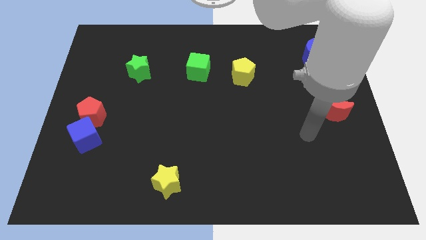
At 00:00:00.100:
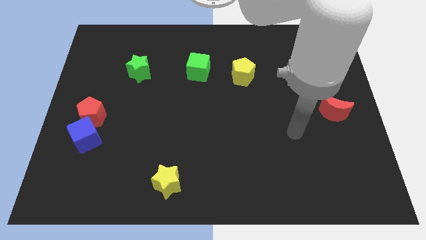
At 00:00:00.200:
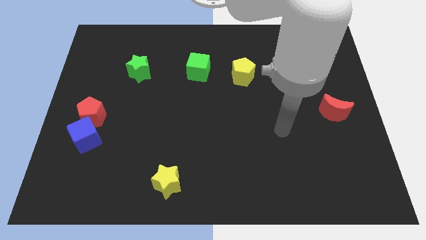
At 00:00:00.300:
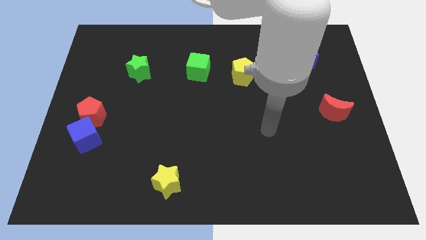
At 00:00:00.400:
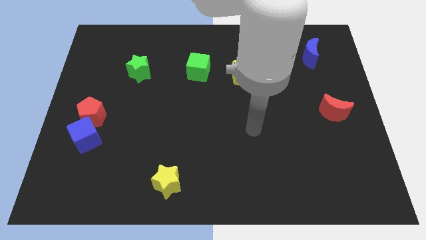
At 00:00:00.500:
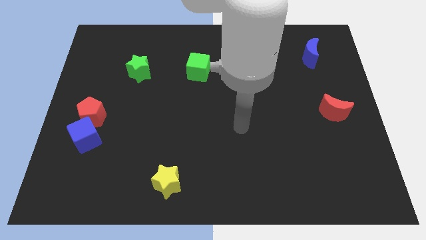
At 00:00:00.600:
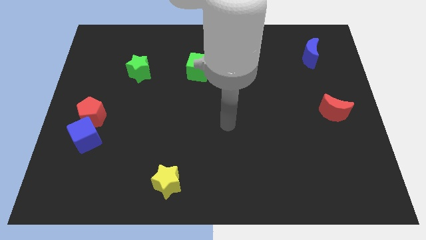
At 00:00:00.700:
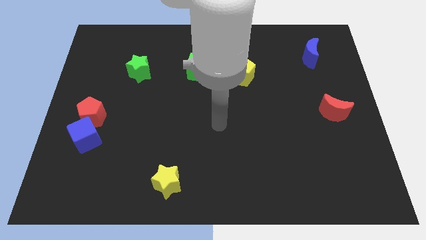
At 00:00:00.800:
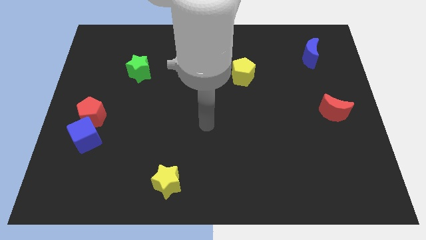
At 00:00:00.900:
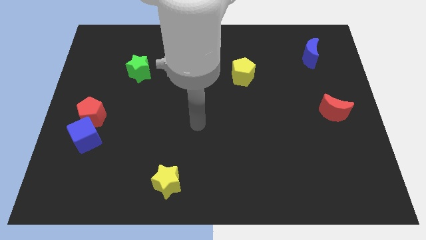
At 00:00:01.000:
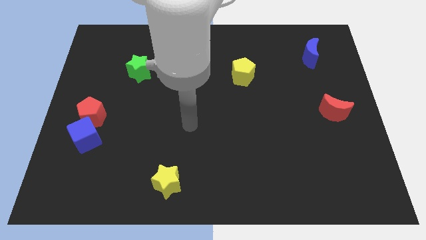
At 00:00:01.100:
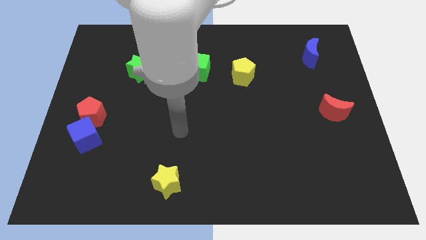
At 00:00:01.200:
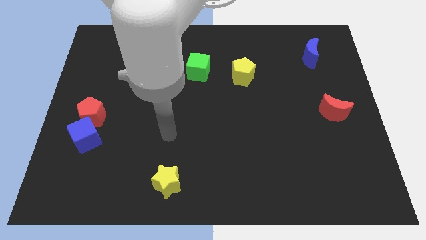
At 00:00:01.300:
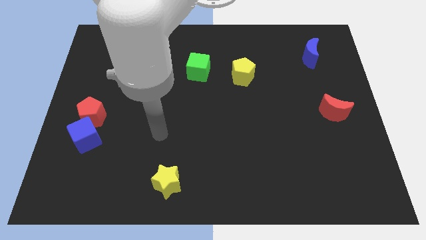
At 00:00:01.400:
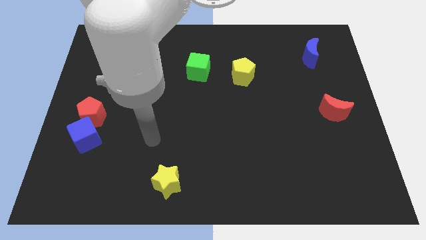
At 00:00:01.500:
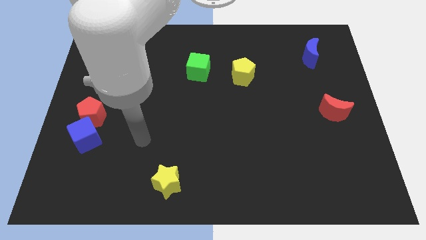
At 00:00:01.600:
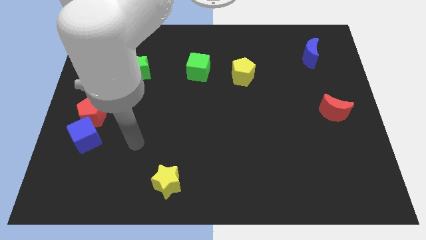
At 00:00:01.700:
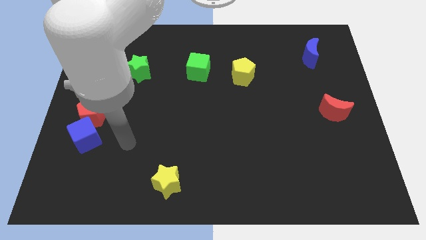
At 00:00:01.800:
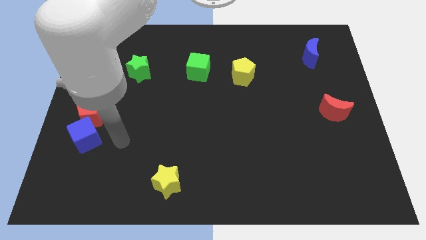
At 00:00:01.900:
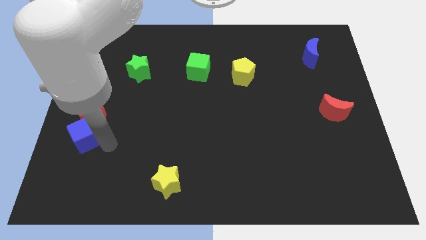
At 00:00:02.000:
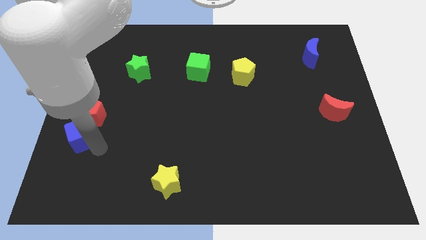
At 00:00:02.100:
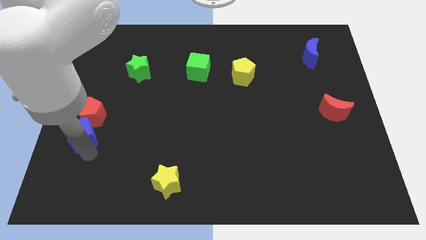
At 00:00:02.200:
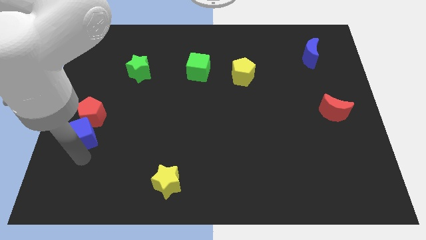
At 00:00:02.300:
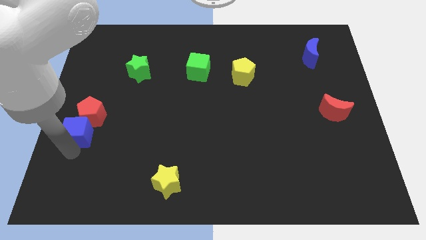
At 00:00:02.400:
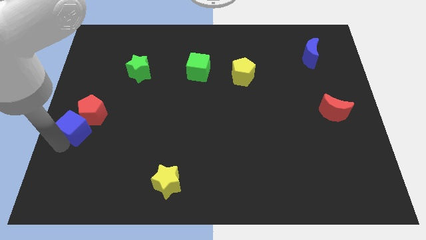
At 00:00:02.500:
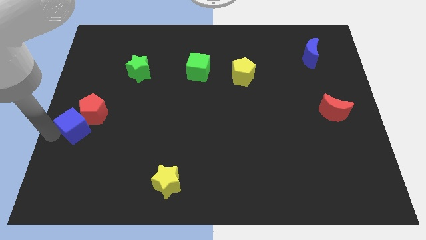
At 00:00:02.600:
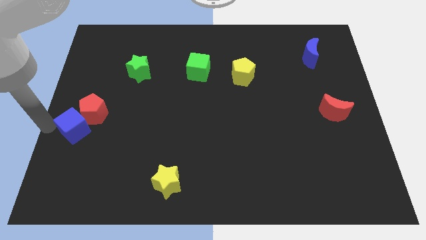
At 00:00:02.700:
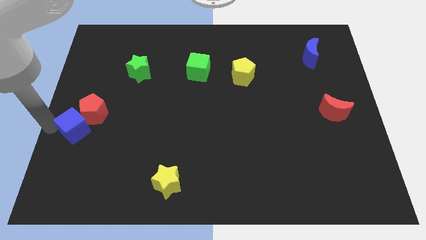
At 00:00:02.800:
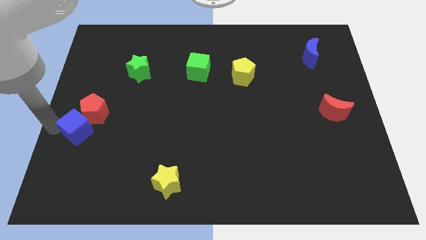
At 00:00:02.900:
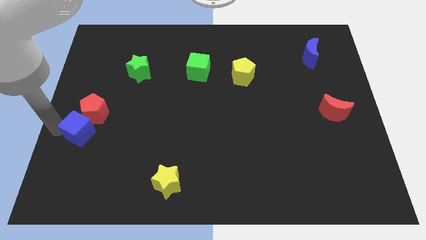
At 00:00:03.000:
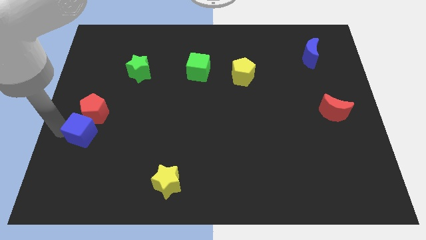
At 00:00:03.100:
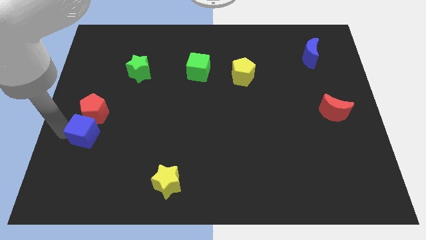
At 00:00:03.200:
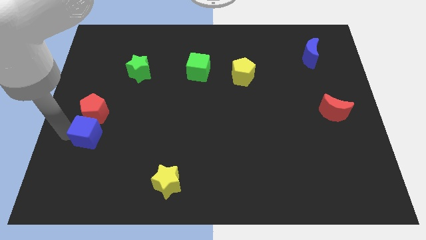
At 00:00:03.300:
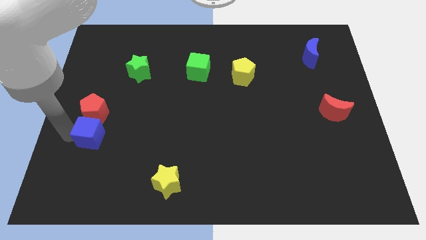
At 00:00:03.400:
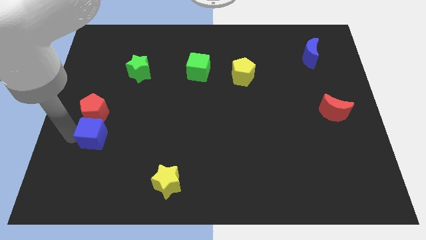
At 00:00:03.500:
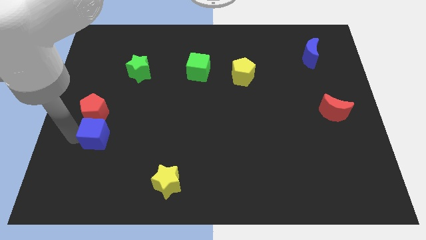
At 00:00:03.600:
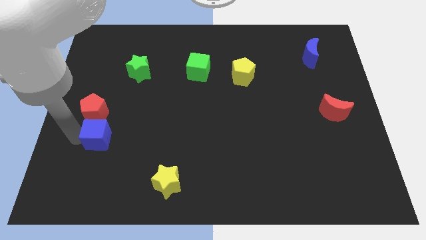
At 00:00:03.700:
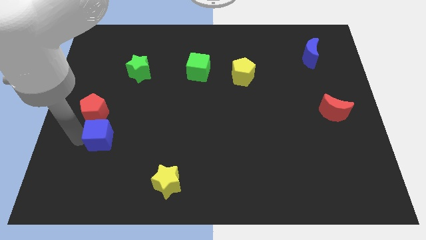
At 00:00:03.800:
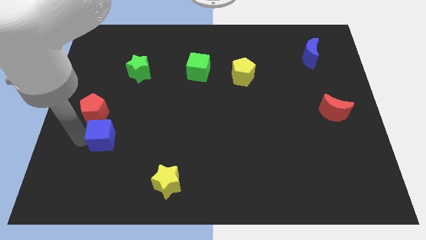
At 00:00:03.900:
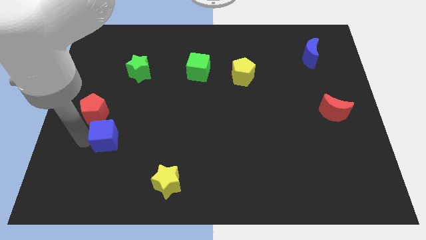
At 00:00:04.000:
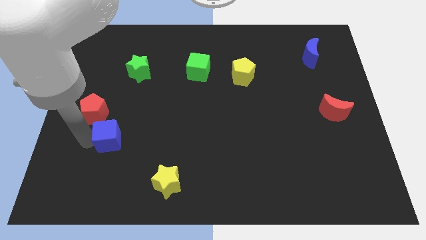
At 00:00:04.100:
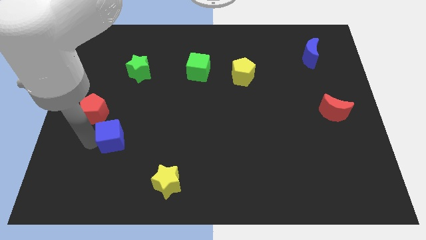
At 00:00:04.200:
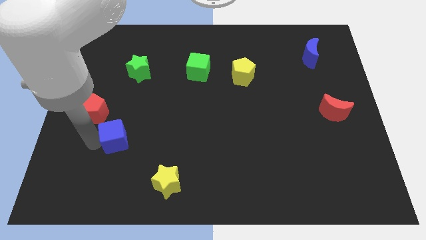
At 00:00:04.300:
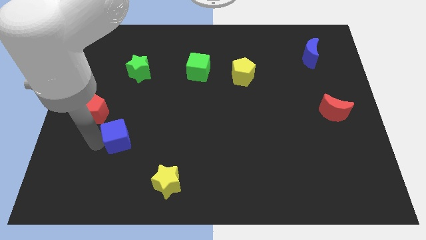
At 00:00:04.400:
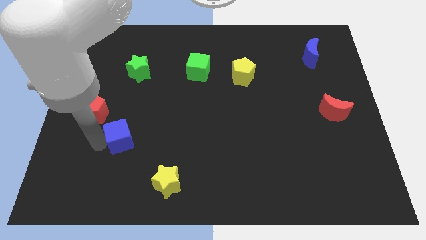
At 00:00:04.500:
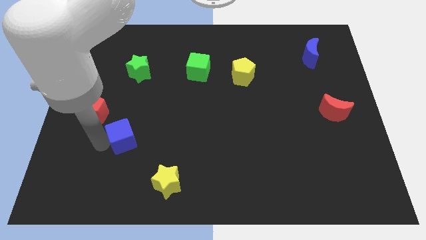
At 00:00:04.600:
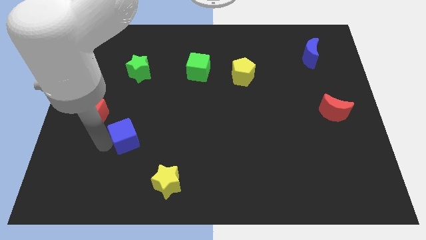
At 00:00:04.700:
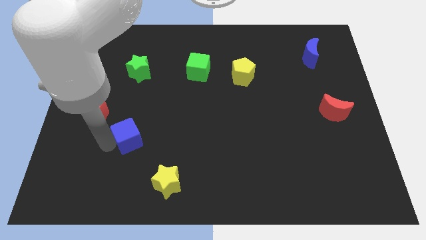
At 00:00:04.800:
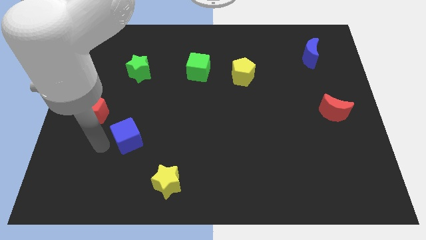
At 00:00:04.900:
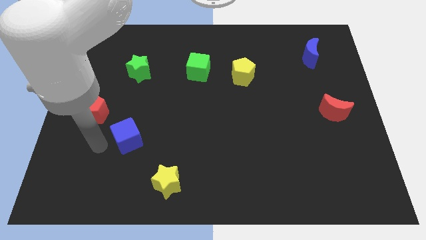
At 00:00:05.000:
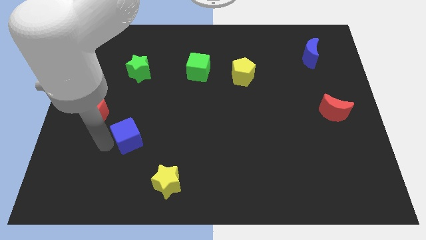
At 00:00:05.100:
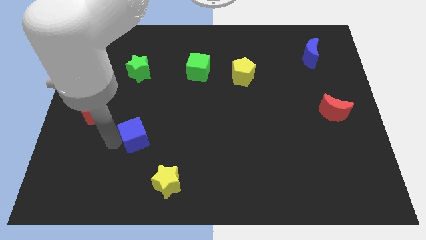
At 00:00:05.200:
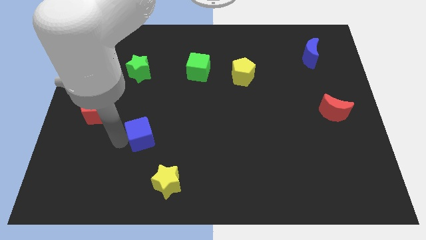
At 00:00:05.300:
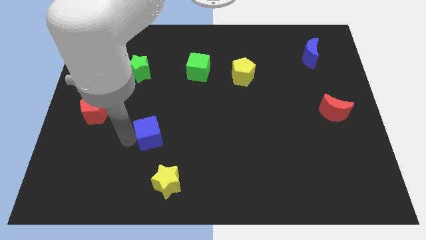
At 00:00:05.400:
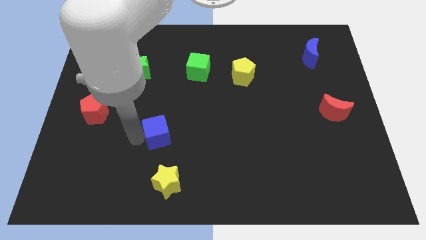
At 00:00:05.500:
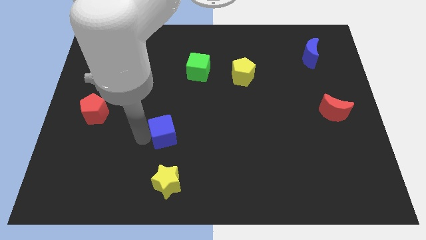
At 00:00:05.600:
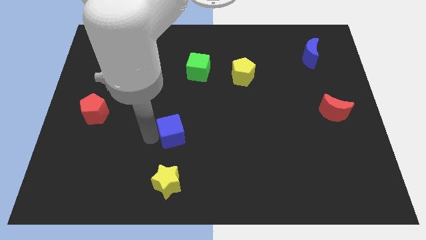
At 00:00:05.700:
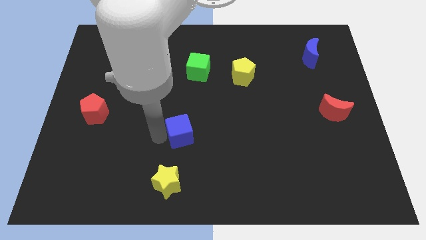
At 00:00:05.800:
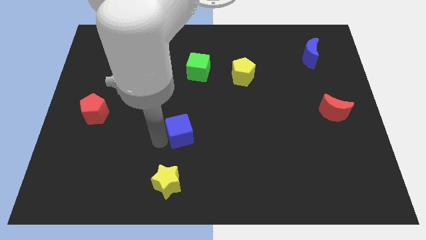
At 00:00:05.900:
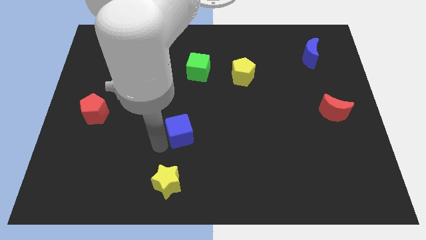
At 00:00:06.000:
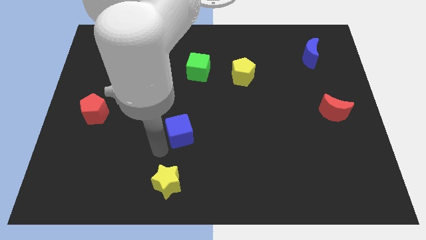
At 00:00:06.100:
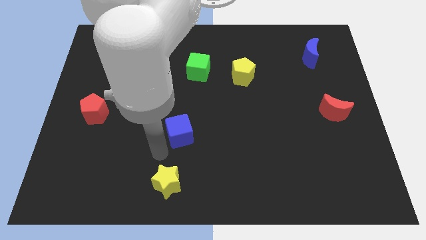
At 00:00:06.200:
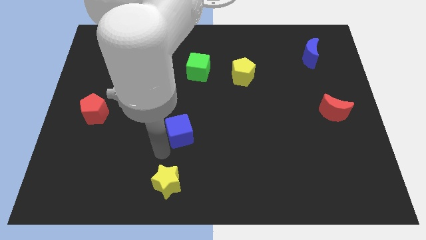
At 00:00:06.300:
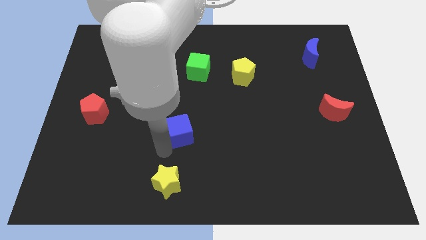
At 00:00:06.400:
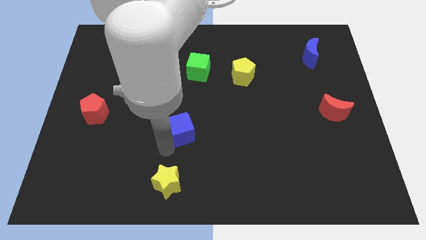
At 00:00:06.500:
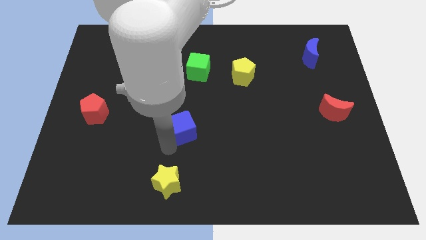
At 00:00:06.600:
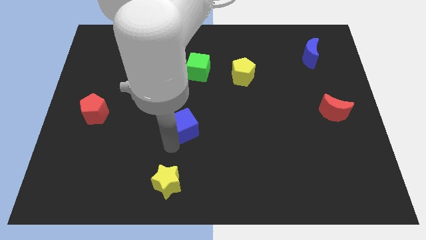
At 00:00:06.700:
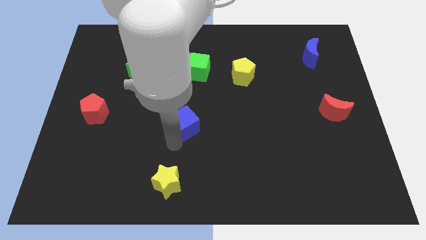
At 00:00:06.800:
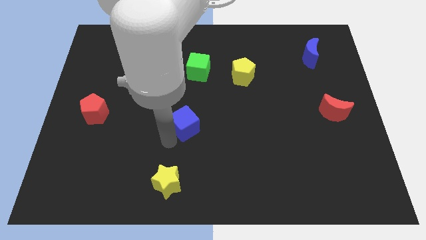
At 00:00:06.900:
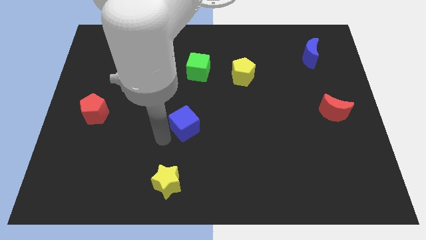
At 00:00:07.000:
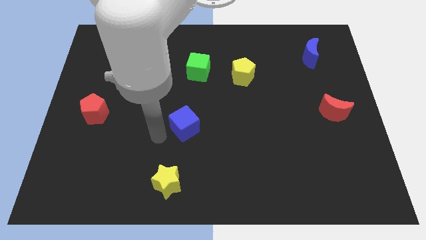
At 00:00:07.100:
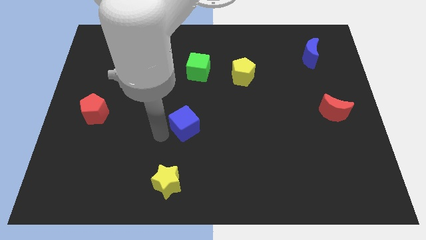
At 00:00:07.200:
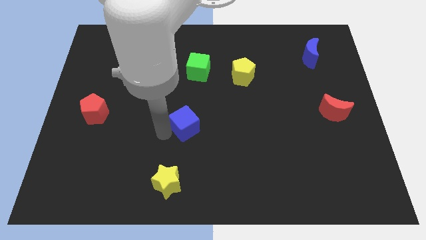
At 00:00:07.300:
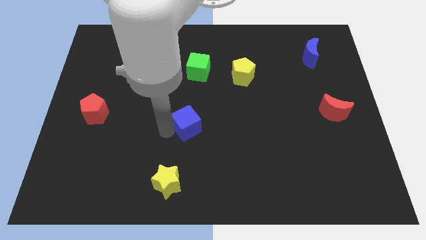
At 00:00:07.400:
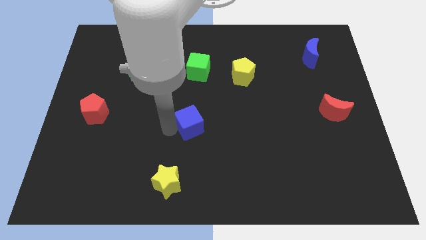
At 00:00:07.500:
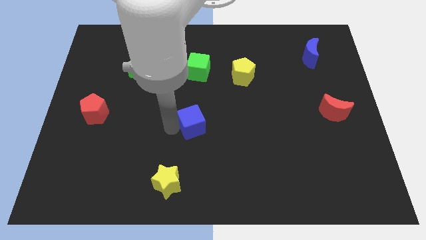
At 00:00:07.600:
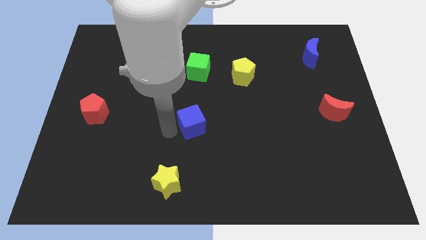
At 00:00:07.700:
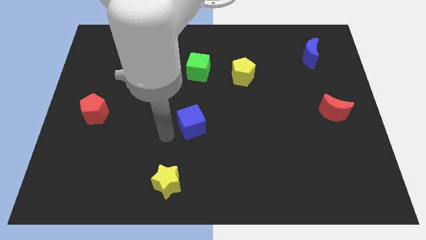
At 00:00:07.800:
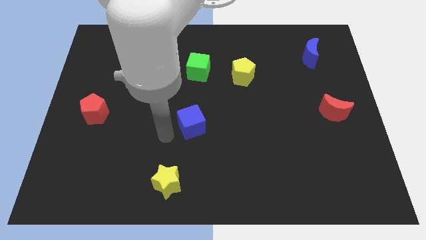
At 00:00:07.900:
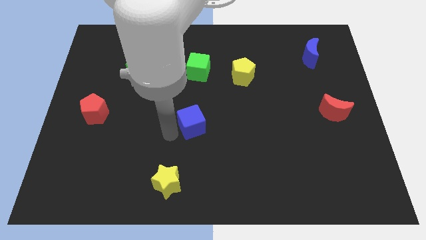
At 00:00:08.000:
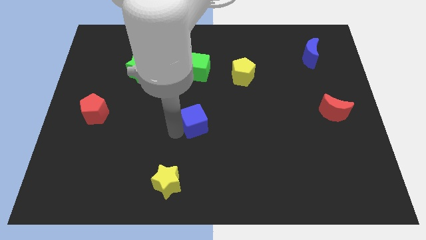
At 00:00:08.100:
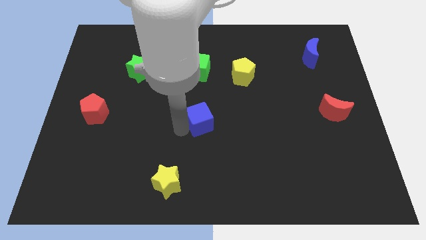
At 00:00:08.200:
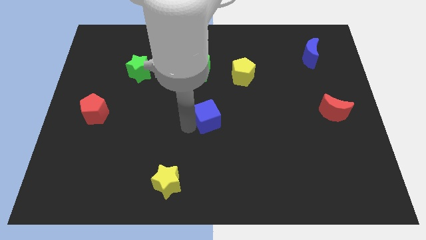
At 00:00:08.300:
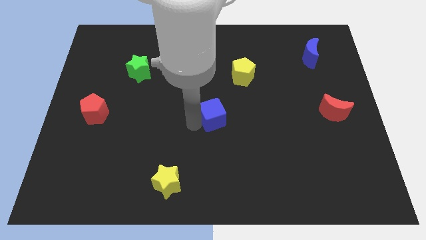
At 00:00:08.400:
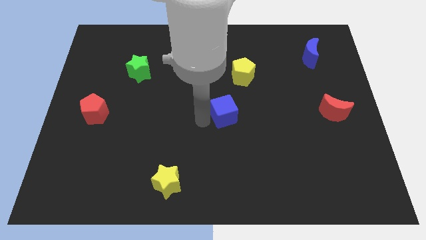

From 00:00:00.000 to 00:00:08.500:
slide the blue cube to the bottom of the yellow pentagon
